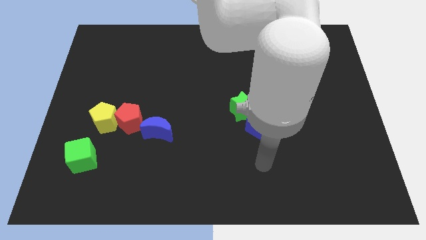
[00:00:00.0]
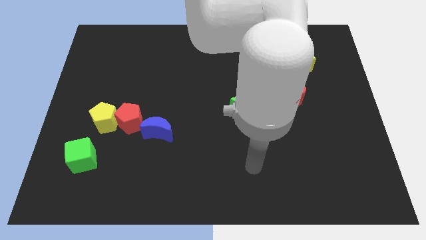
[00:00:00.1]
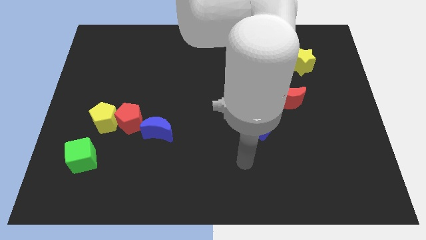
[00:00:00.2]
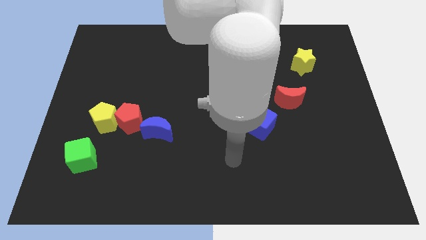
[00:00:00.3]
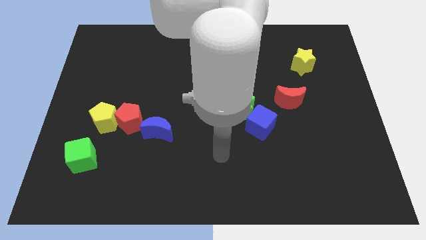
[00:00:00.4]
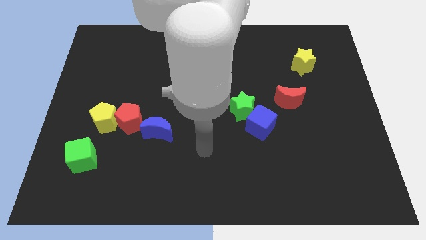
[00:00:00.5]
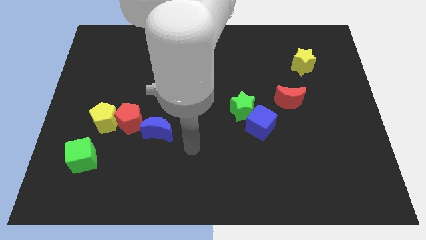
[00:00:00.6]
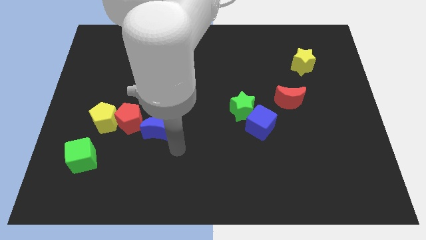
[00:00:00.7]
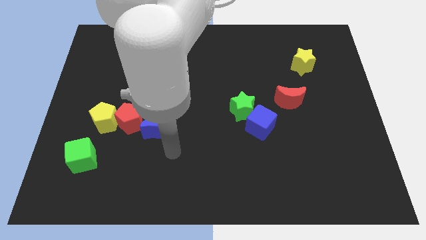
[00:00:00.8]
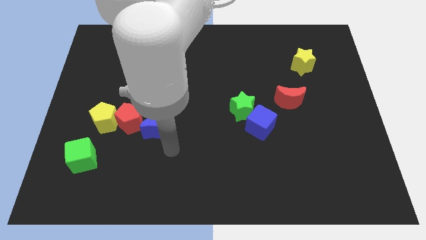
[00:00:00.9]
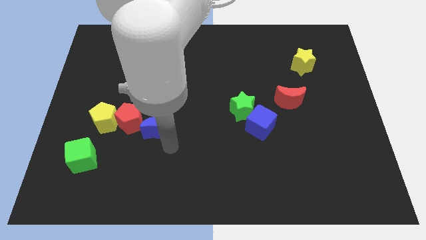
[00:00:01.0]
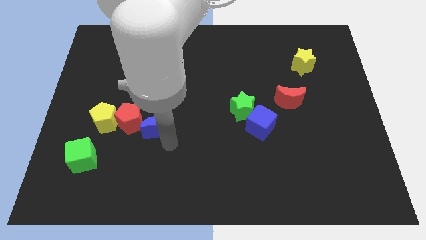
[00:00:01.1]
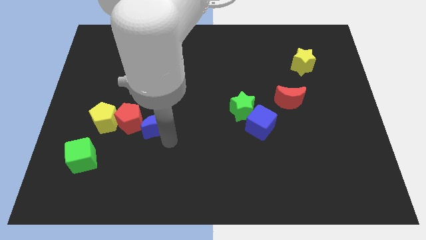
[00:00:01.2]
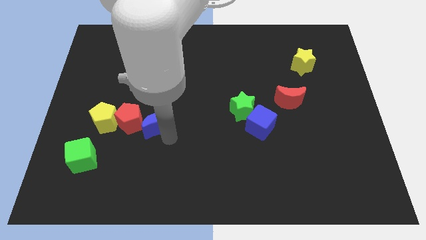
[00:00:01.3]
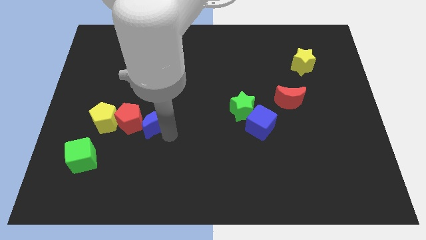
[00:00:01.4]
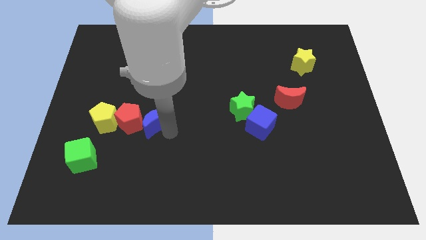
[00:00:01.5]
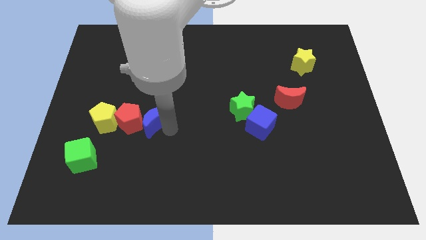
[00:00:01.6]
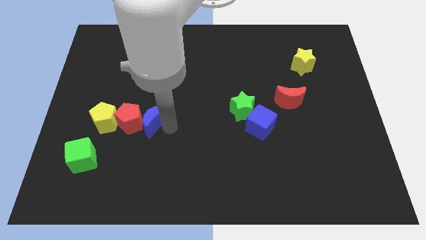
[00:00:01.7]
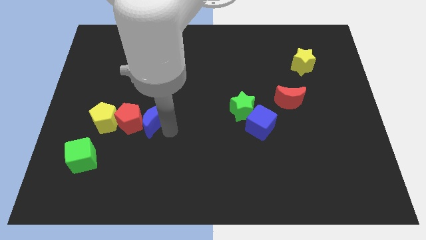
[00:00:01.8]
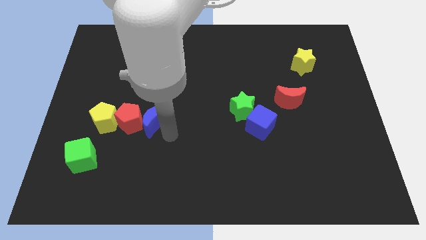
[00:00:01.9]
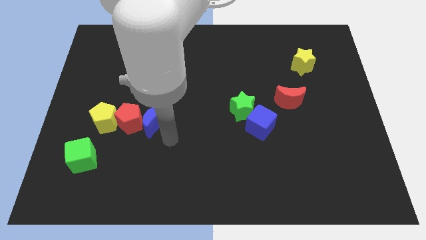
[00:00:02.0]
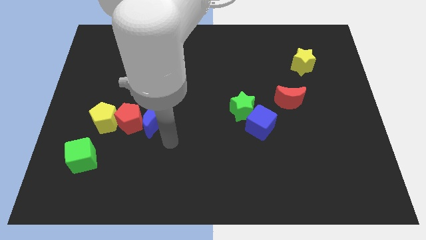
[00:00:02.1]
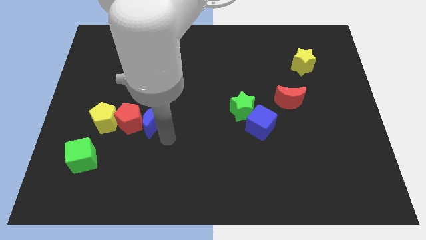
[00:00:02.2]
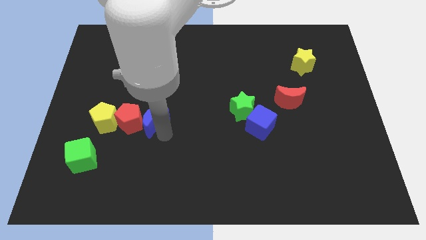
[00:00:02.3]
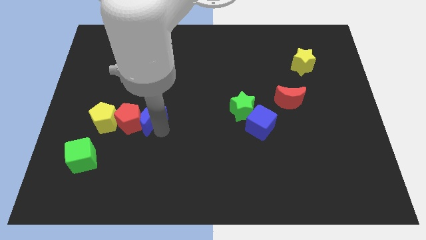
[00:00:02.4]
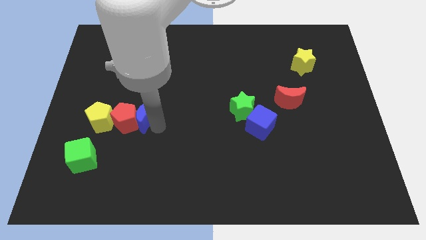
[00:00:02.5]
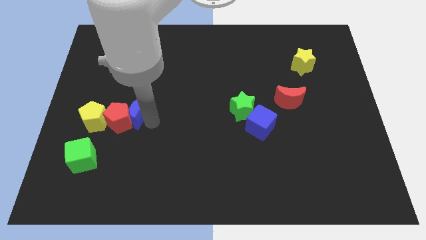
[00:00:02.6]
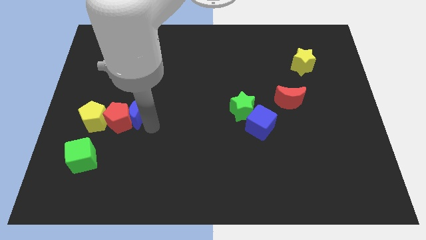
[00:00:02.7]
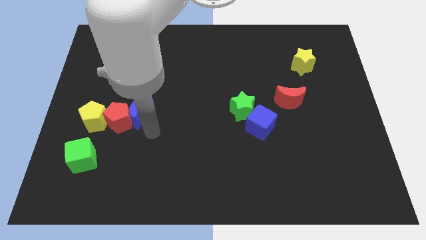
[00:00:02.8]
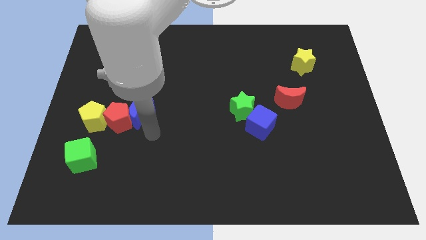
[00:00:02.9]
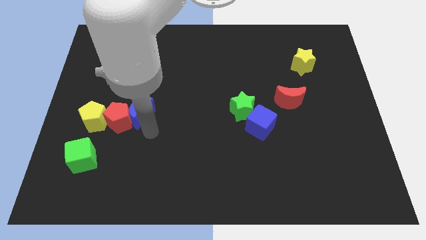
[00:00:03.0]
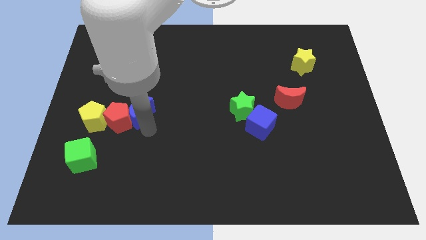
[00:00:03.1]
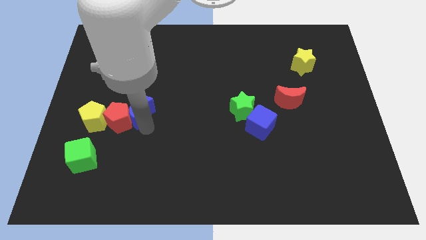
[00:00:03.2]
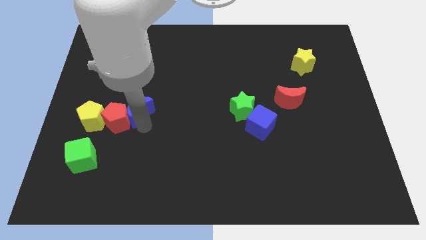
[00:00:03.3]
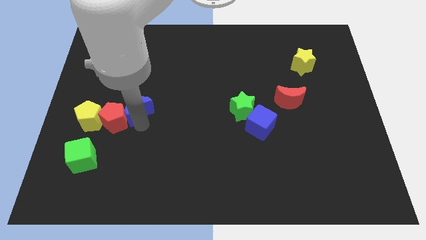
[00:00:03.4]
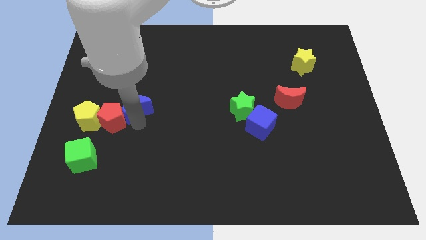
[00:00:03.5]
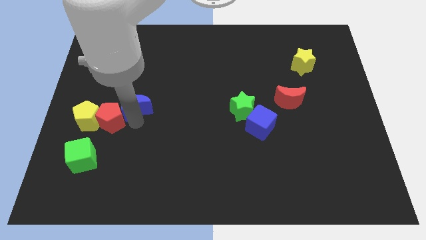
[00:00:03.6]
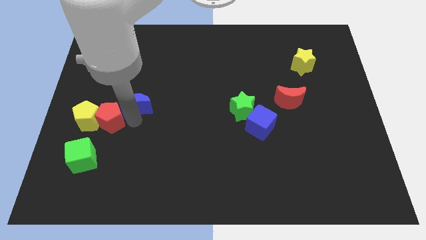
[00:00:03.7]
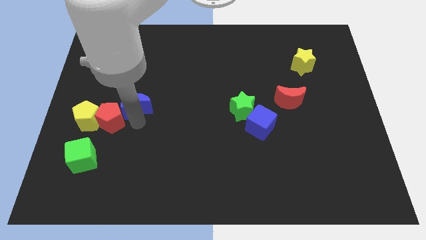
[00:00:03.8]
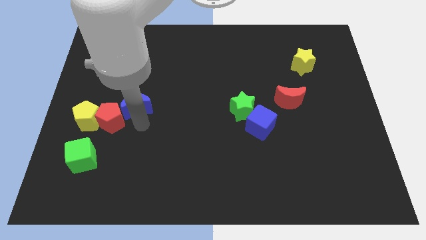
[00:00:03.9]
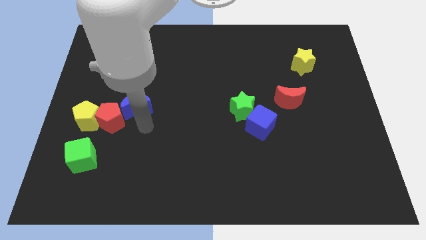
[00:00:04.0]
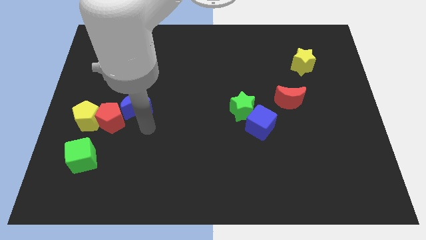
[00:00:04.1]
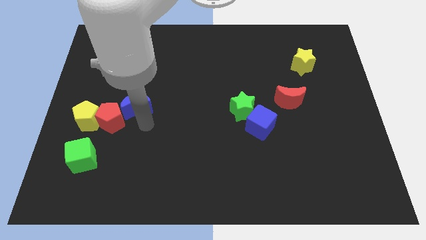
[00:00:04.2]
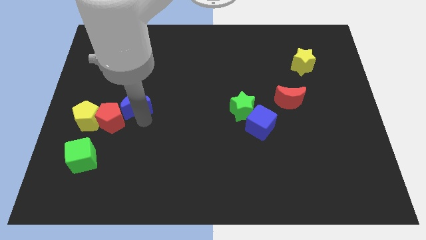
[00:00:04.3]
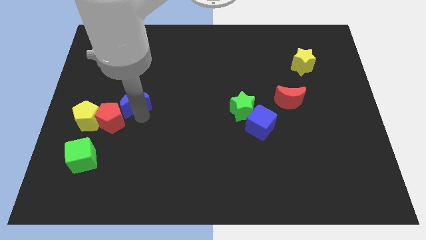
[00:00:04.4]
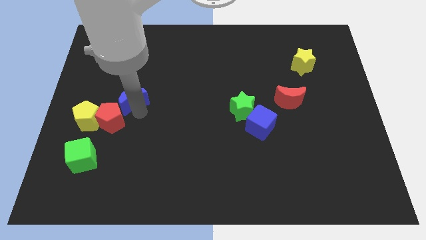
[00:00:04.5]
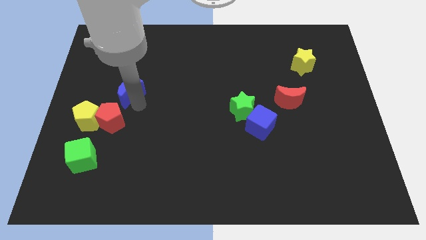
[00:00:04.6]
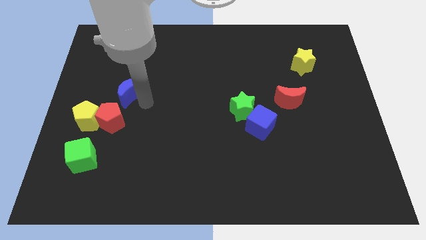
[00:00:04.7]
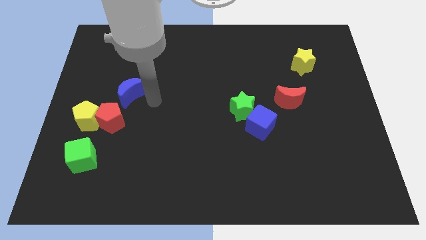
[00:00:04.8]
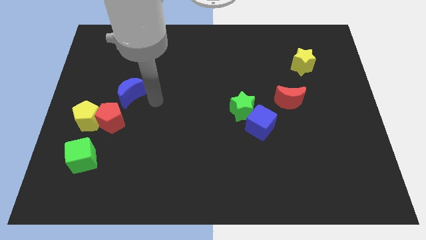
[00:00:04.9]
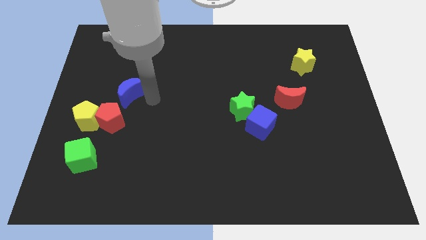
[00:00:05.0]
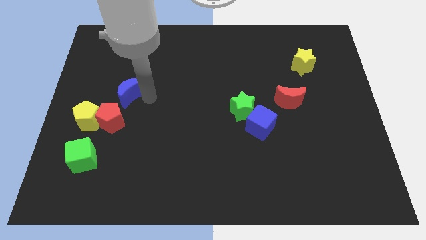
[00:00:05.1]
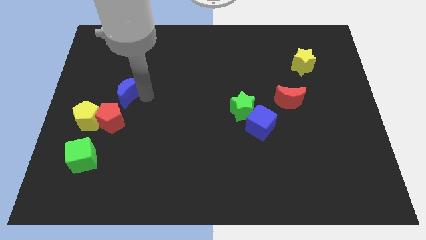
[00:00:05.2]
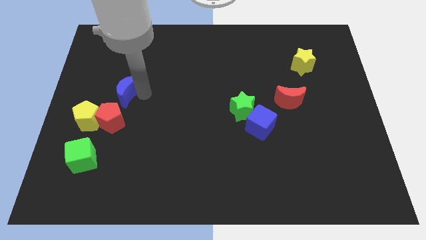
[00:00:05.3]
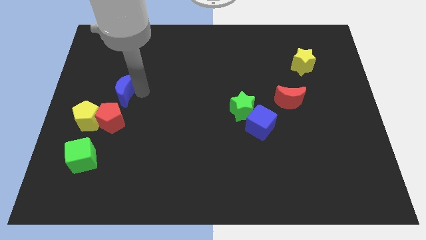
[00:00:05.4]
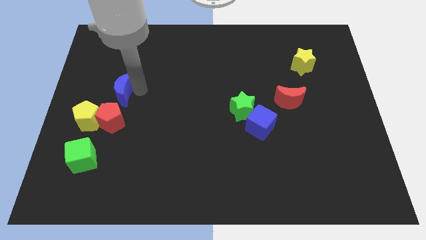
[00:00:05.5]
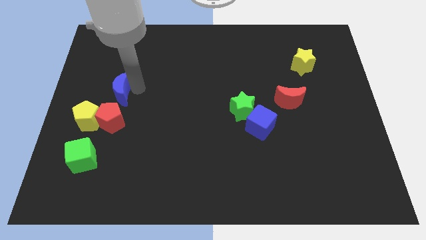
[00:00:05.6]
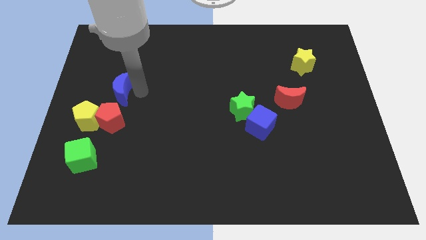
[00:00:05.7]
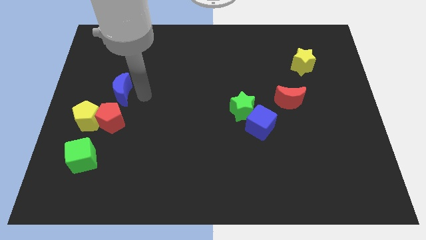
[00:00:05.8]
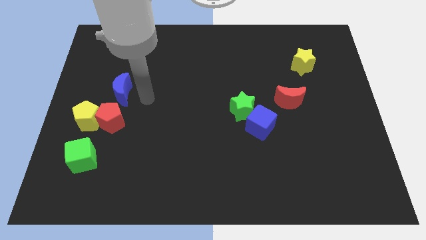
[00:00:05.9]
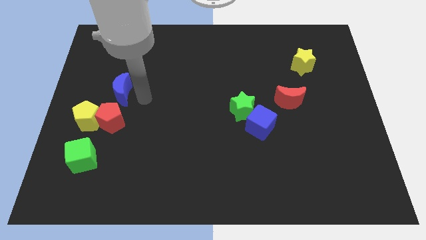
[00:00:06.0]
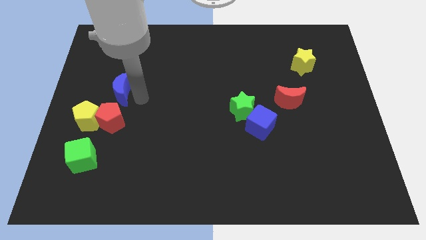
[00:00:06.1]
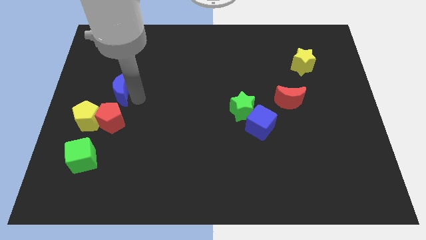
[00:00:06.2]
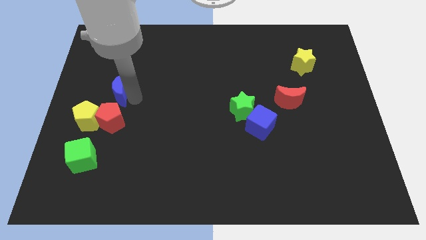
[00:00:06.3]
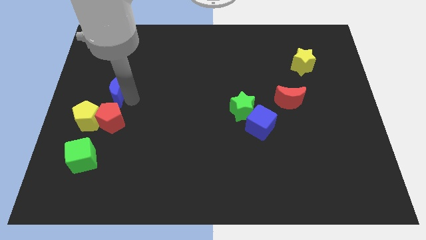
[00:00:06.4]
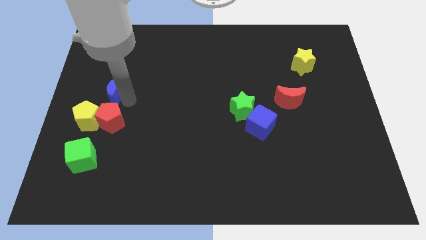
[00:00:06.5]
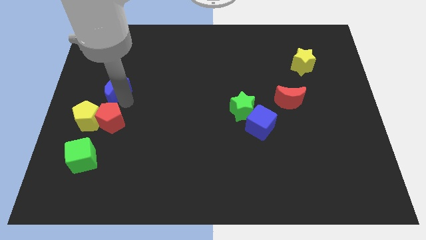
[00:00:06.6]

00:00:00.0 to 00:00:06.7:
put the blue moon above the yellow pentagon

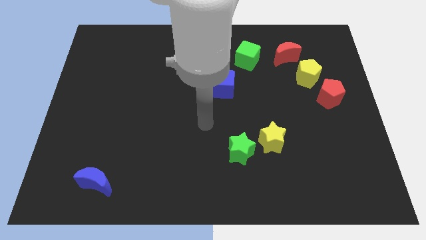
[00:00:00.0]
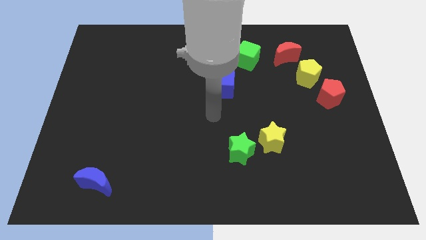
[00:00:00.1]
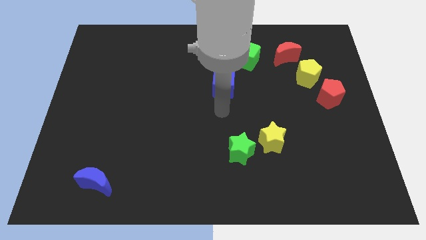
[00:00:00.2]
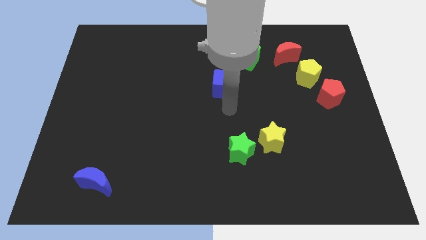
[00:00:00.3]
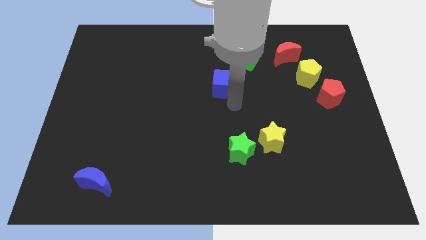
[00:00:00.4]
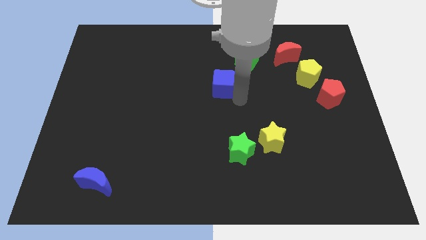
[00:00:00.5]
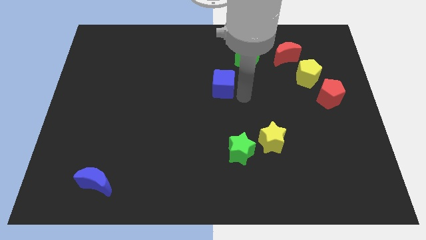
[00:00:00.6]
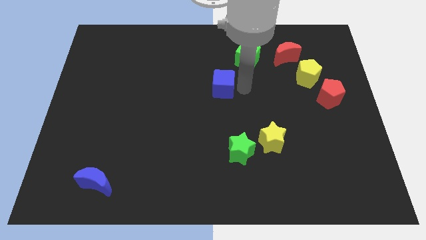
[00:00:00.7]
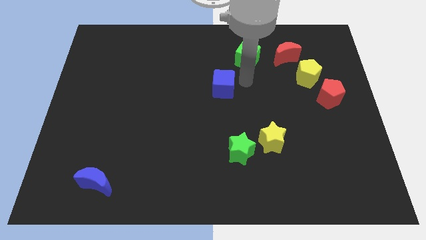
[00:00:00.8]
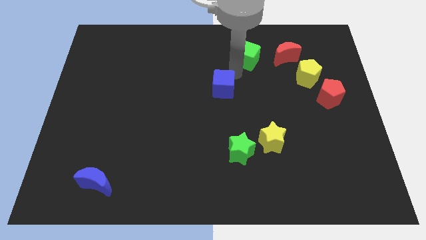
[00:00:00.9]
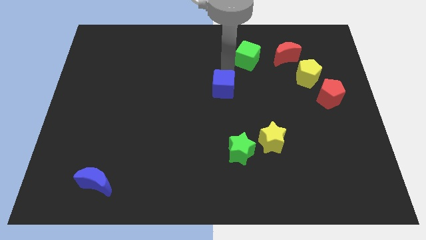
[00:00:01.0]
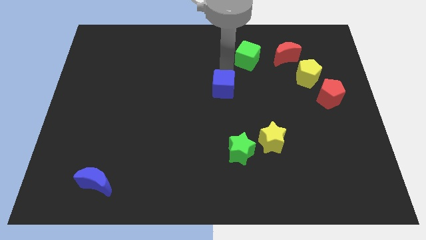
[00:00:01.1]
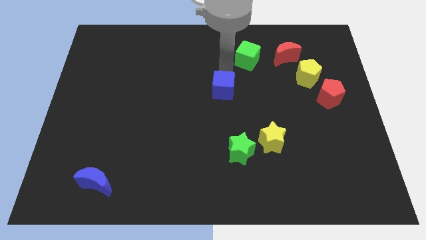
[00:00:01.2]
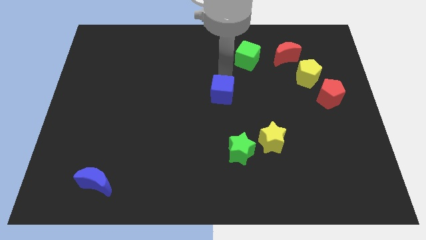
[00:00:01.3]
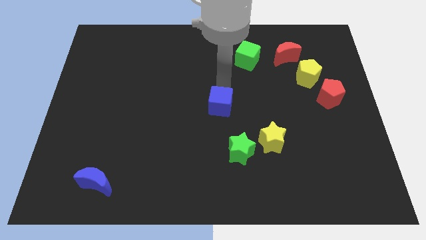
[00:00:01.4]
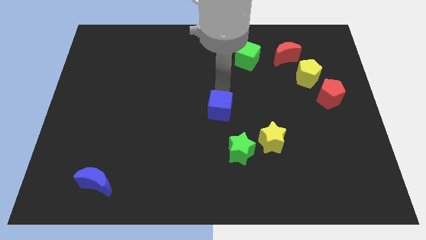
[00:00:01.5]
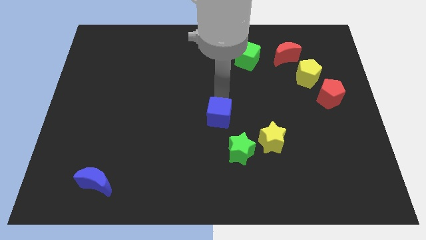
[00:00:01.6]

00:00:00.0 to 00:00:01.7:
slide the blue cube to the top left side of the green star
